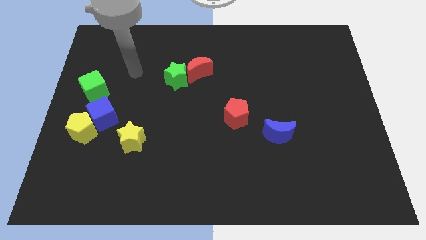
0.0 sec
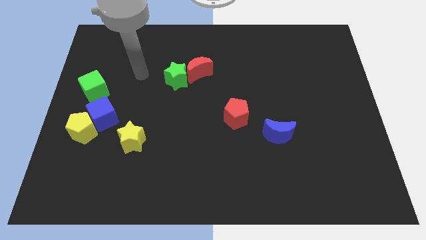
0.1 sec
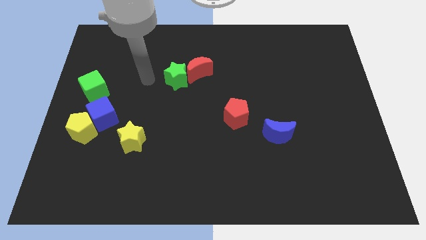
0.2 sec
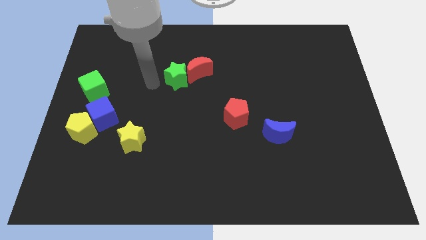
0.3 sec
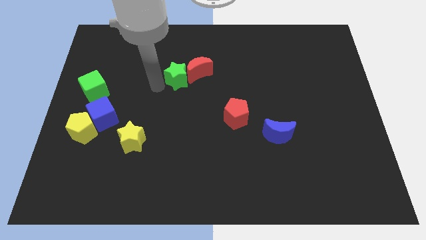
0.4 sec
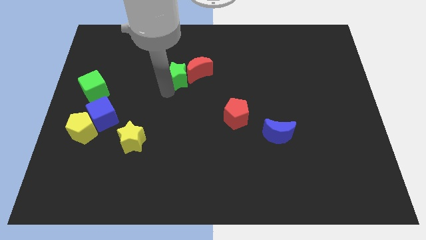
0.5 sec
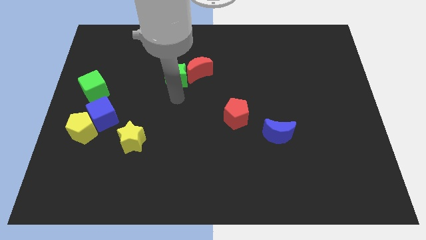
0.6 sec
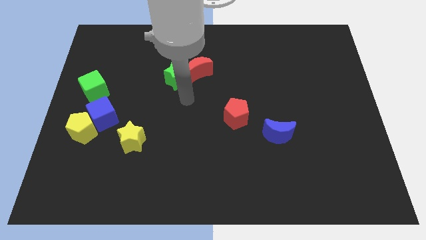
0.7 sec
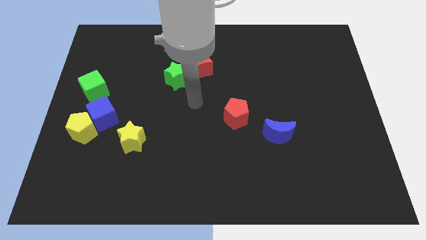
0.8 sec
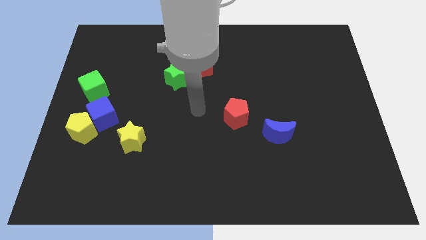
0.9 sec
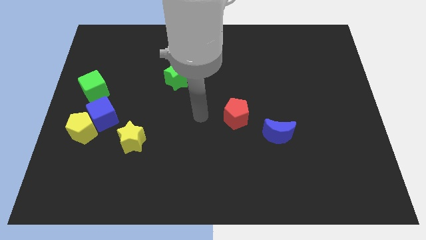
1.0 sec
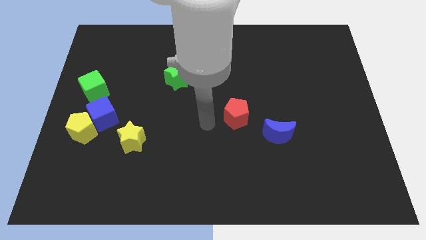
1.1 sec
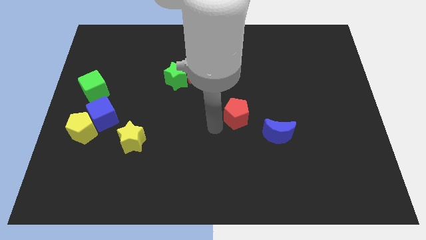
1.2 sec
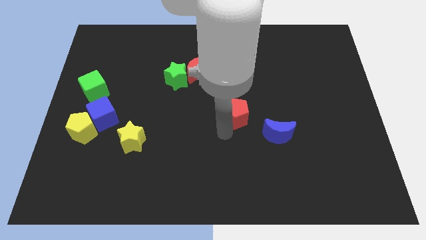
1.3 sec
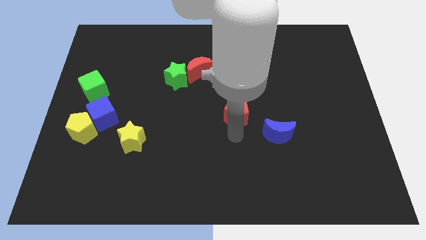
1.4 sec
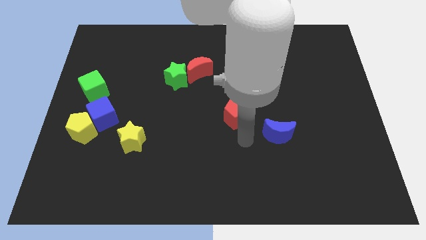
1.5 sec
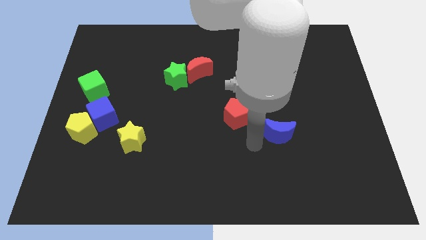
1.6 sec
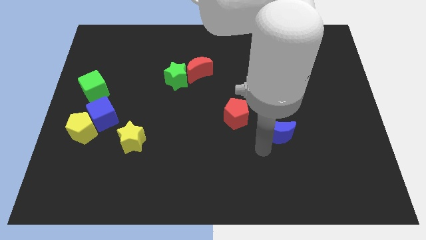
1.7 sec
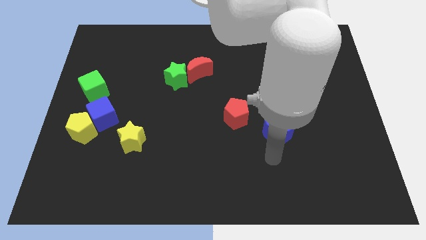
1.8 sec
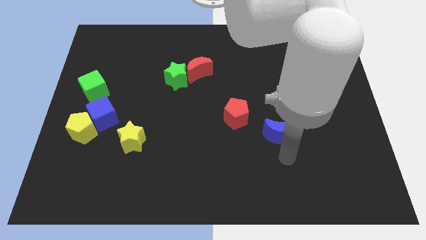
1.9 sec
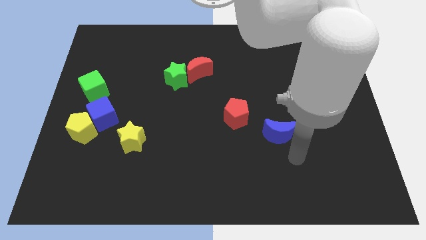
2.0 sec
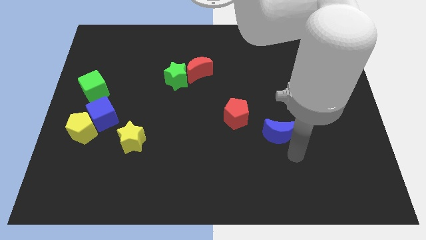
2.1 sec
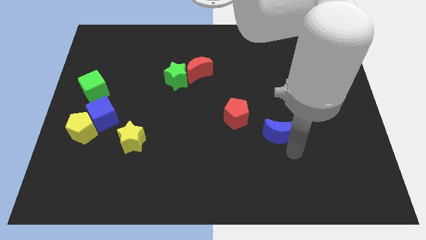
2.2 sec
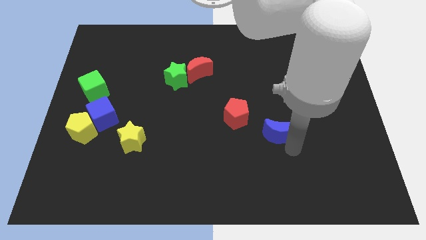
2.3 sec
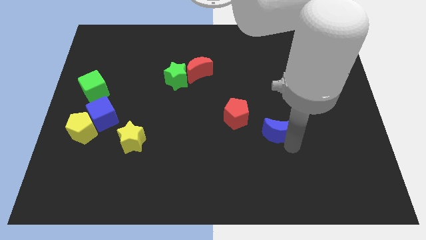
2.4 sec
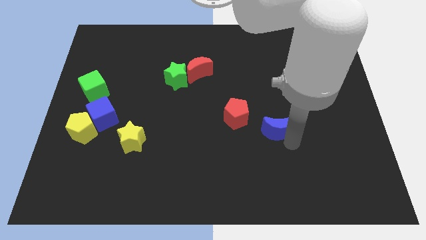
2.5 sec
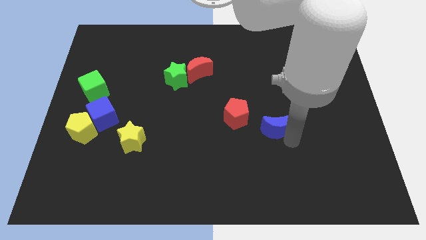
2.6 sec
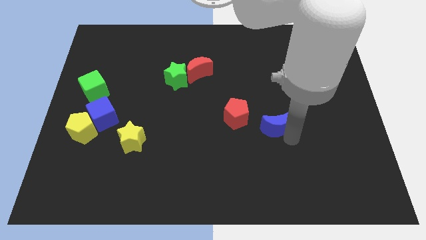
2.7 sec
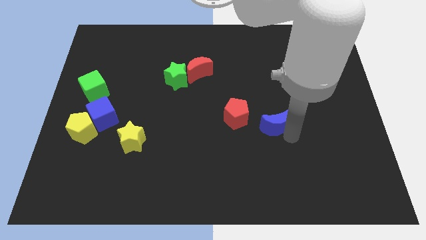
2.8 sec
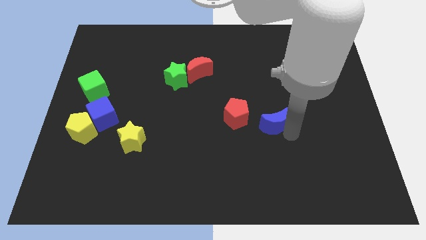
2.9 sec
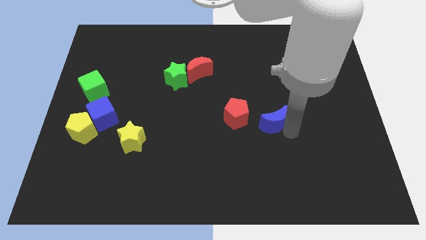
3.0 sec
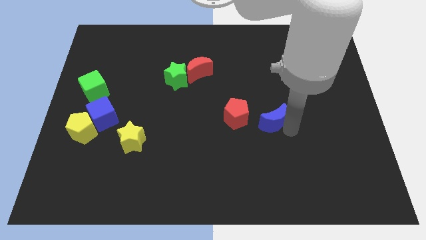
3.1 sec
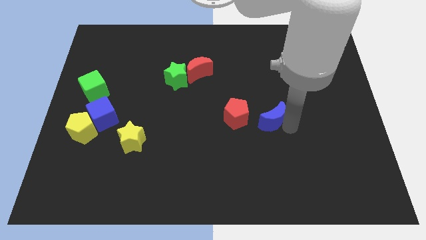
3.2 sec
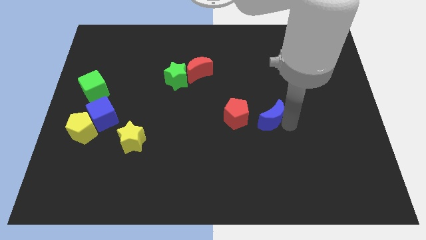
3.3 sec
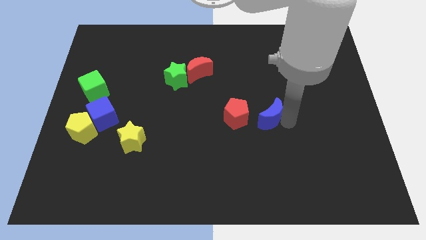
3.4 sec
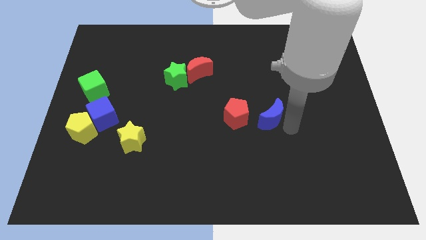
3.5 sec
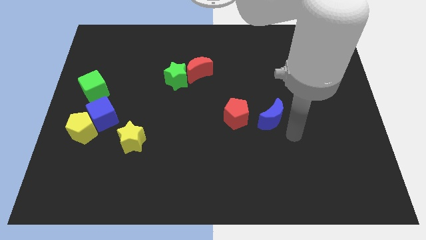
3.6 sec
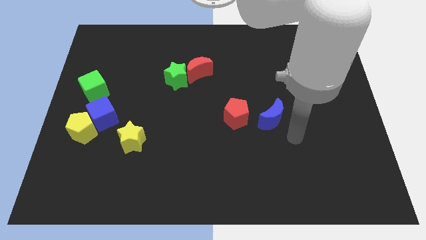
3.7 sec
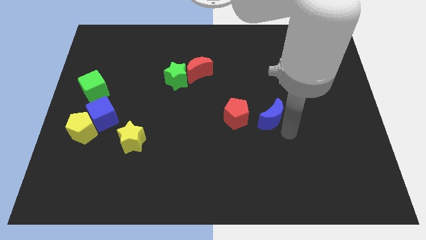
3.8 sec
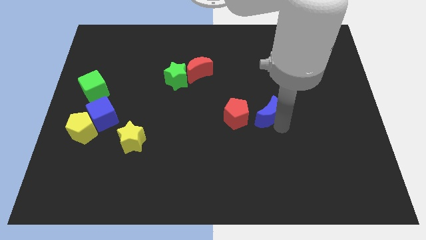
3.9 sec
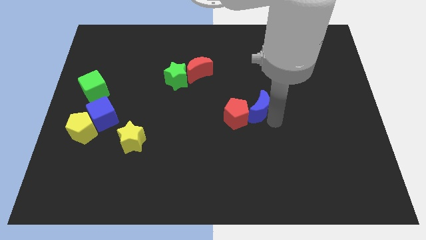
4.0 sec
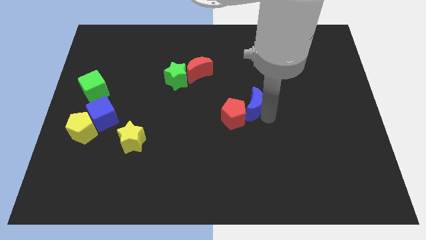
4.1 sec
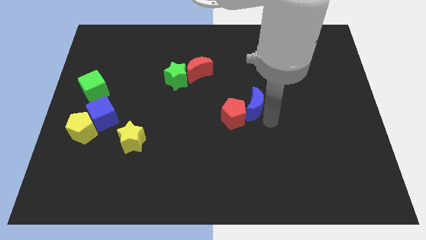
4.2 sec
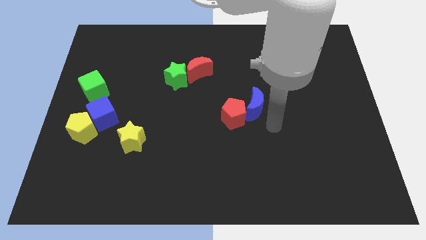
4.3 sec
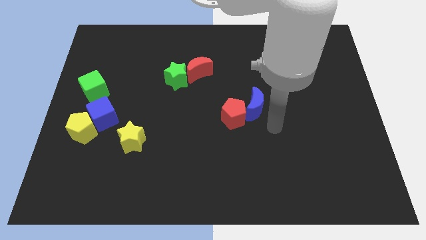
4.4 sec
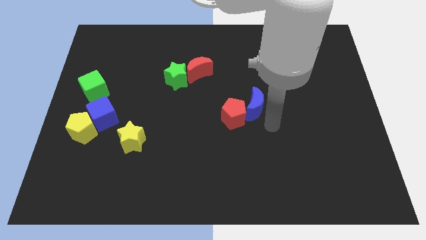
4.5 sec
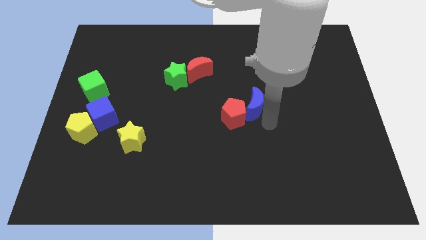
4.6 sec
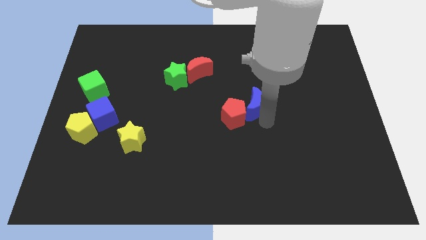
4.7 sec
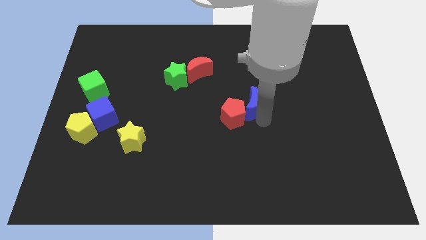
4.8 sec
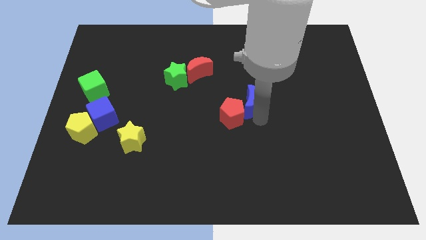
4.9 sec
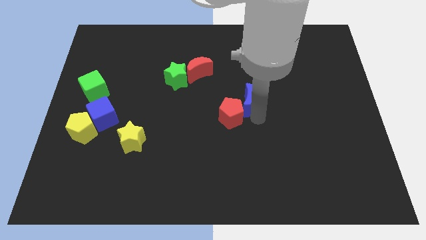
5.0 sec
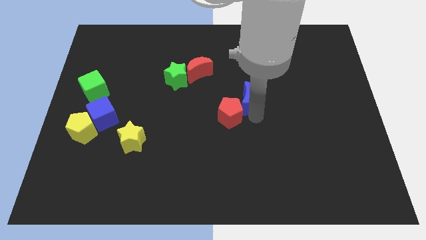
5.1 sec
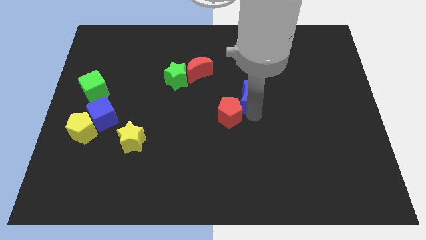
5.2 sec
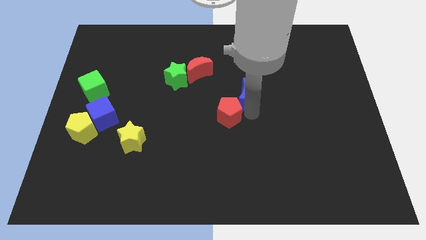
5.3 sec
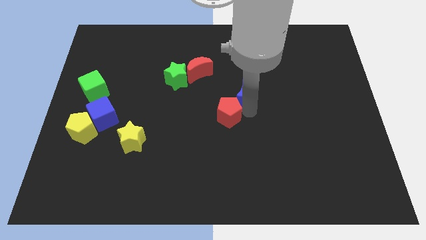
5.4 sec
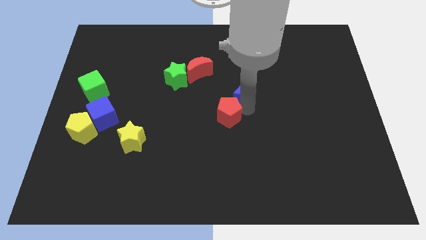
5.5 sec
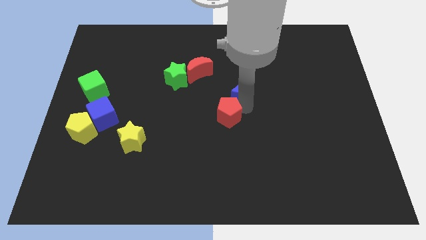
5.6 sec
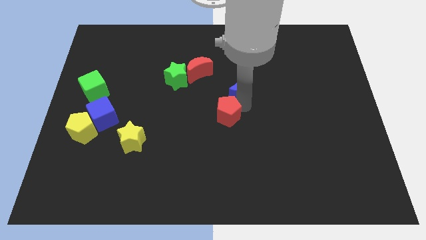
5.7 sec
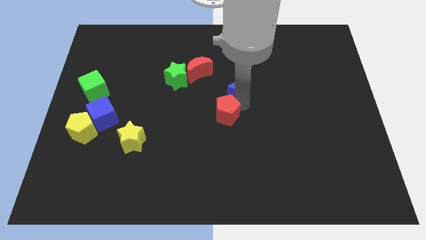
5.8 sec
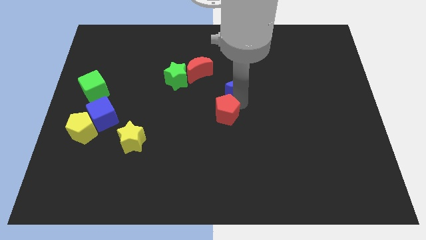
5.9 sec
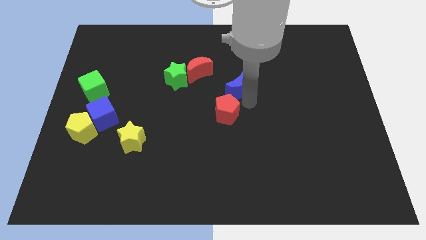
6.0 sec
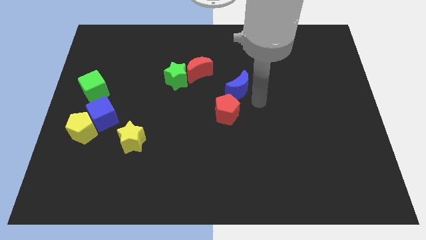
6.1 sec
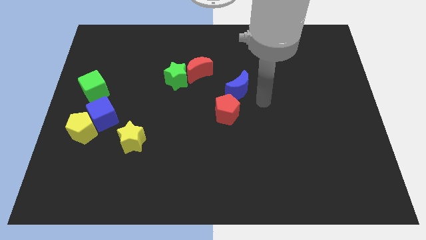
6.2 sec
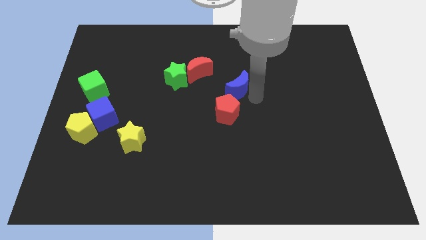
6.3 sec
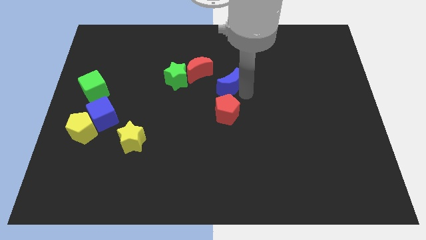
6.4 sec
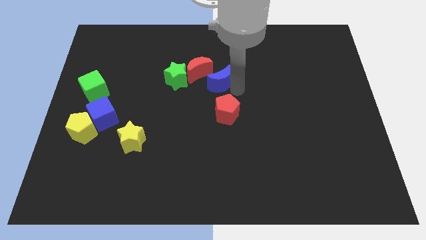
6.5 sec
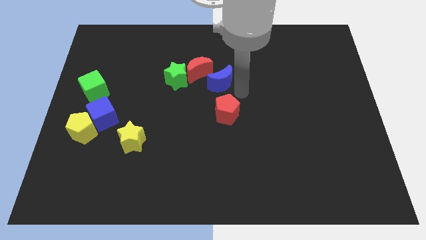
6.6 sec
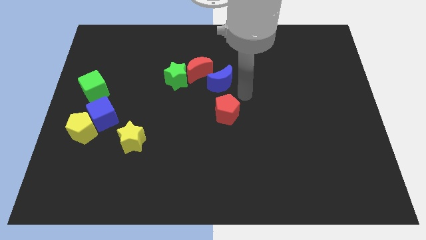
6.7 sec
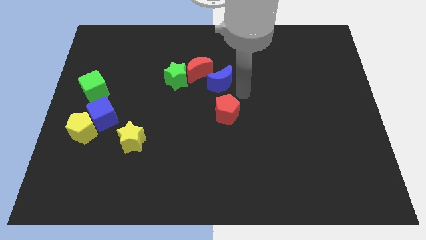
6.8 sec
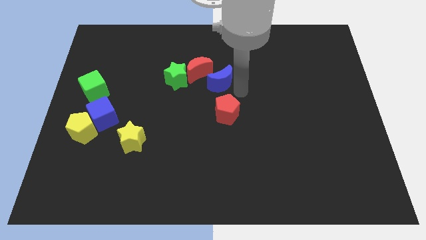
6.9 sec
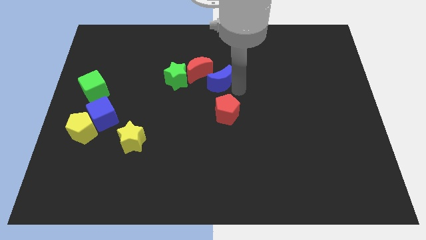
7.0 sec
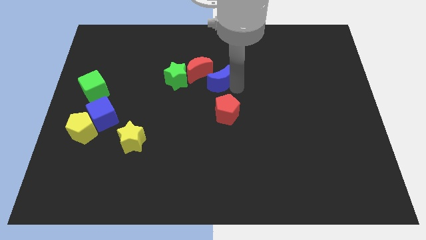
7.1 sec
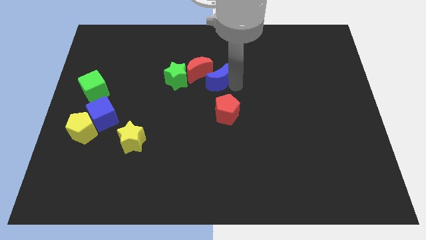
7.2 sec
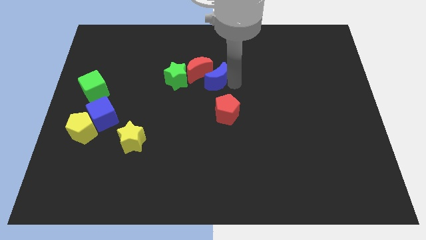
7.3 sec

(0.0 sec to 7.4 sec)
slide the blue moon towards the red moon

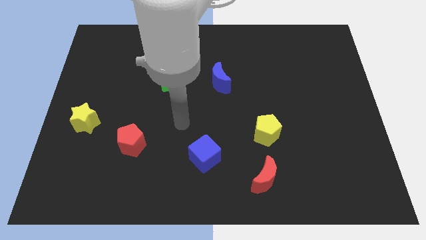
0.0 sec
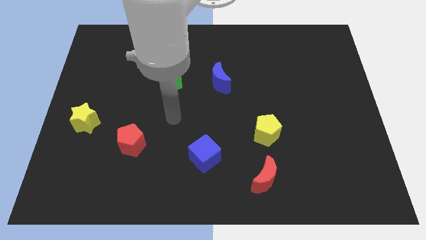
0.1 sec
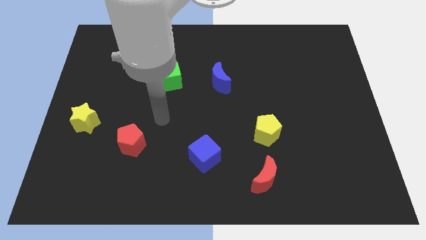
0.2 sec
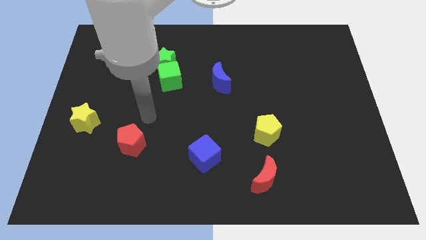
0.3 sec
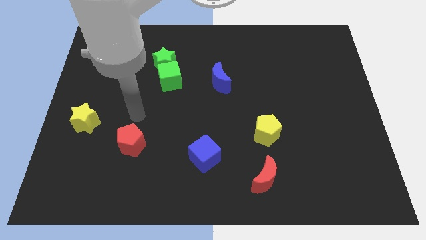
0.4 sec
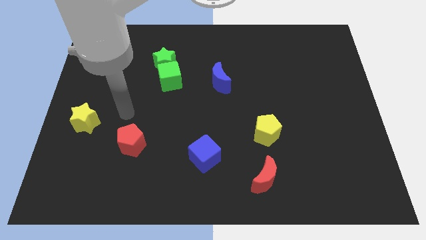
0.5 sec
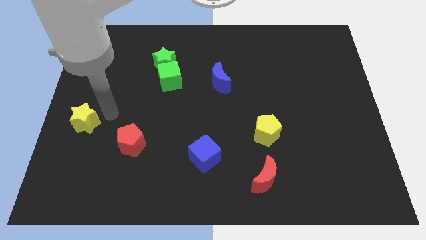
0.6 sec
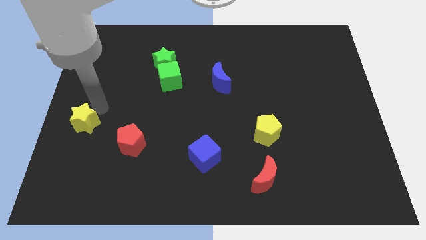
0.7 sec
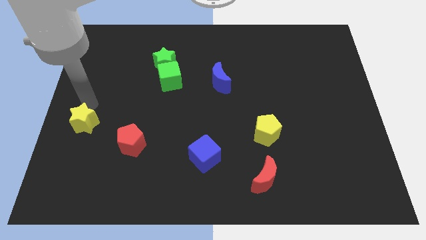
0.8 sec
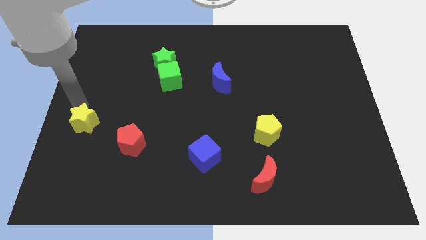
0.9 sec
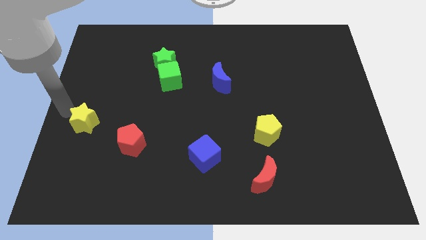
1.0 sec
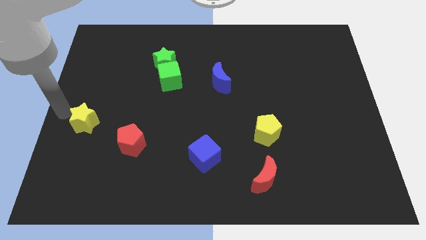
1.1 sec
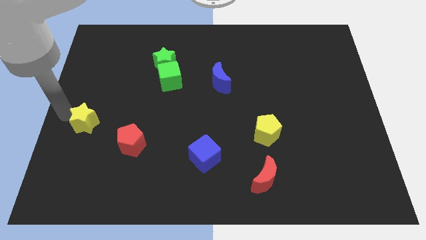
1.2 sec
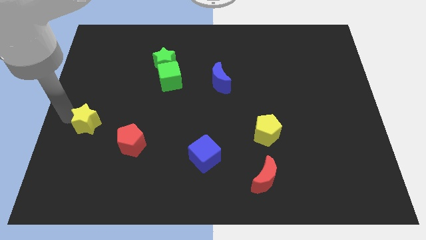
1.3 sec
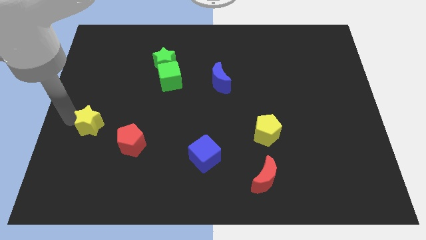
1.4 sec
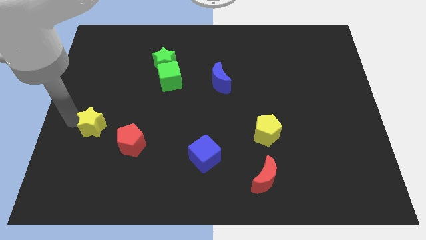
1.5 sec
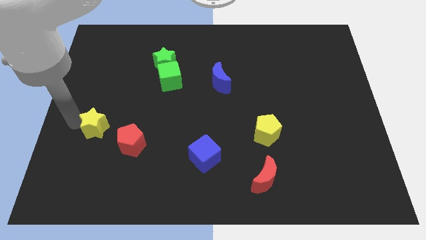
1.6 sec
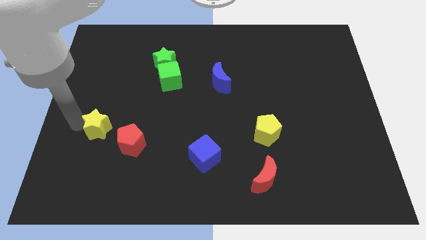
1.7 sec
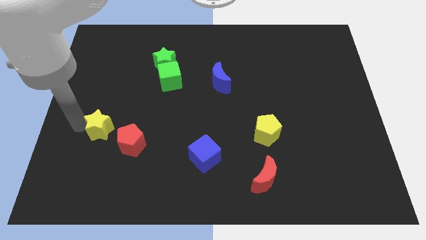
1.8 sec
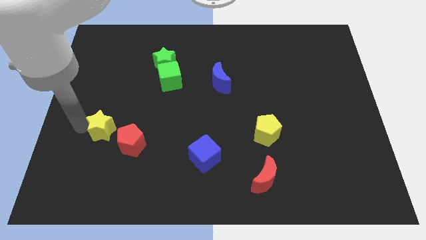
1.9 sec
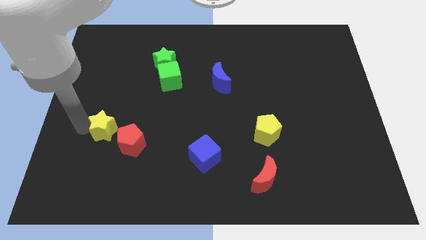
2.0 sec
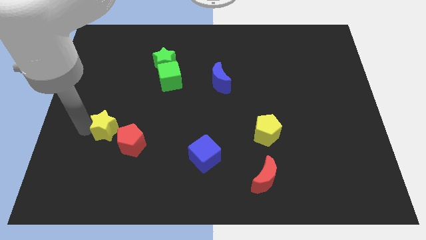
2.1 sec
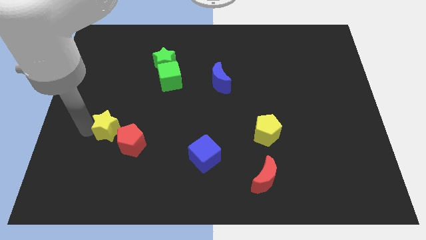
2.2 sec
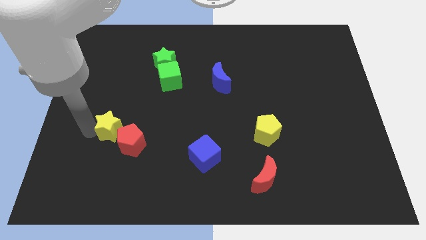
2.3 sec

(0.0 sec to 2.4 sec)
move the yellow star to the red pentagon
